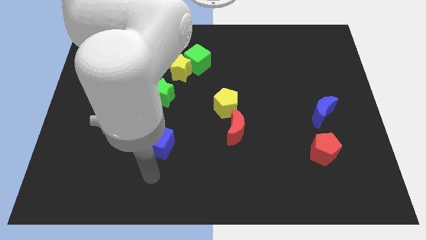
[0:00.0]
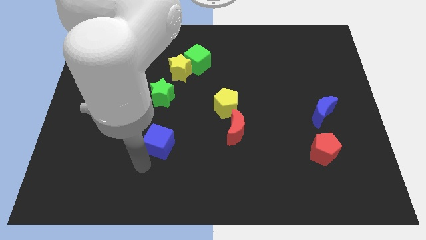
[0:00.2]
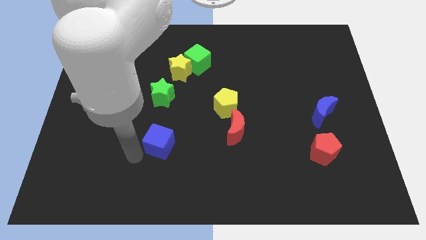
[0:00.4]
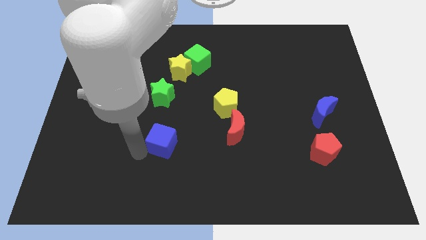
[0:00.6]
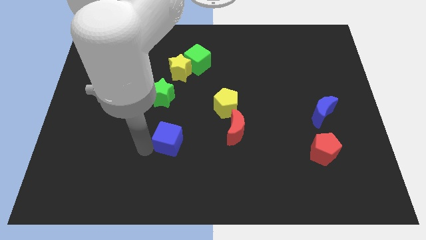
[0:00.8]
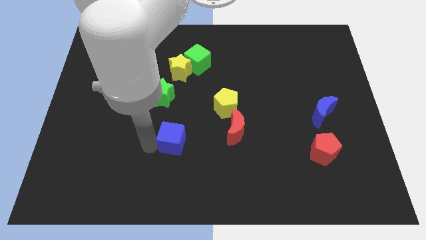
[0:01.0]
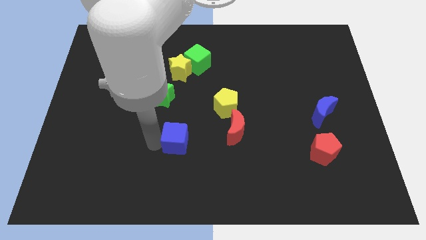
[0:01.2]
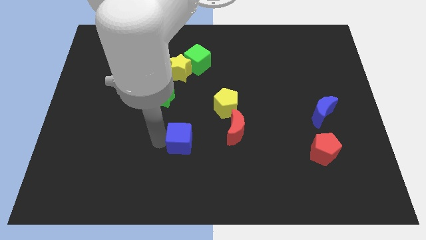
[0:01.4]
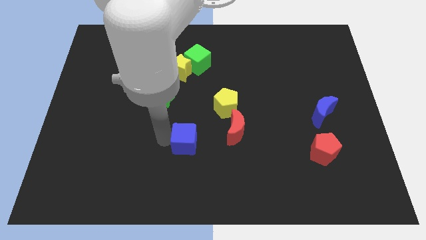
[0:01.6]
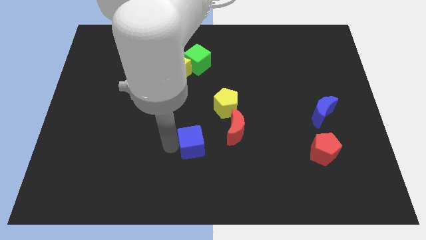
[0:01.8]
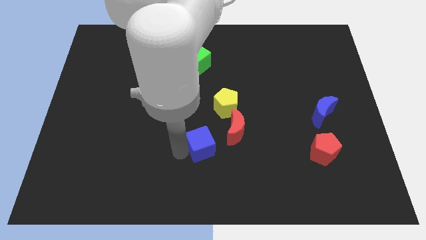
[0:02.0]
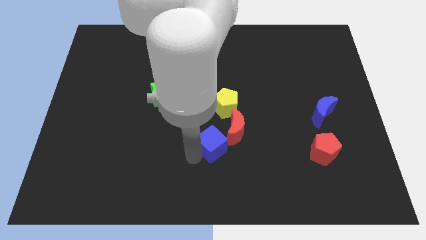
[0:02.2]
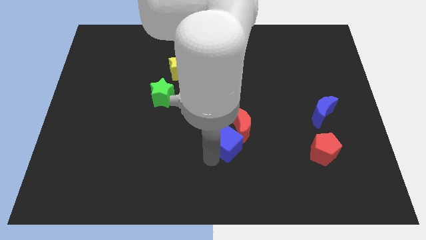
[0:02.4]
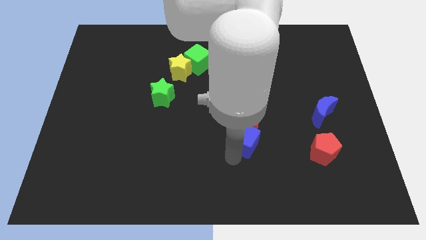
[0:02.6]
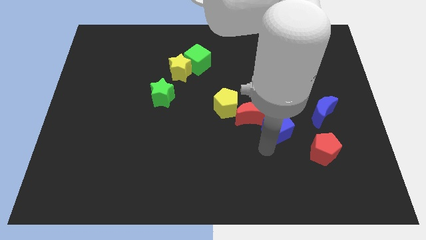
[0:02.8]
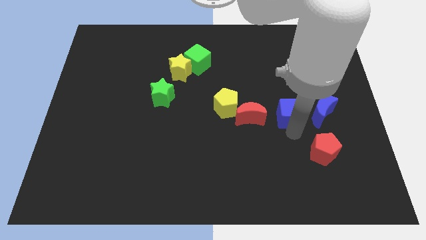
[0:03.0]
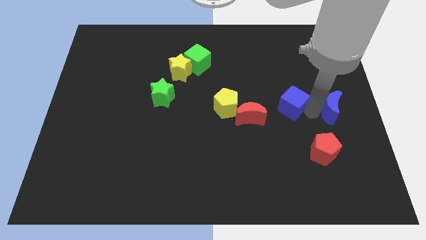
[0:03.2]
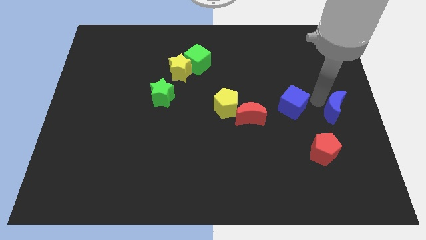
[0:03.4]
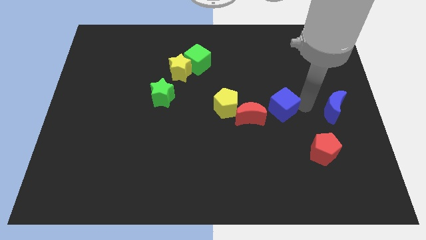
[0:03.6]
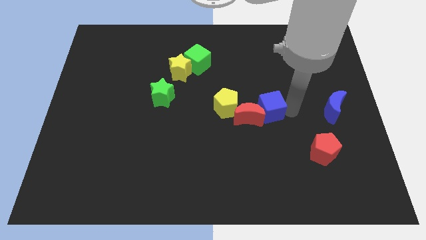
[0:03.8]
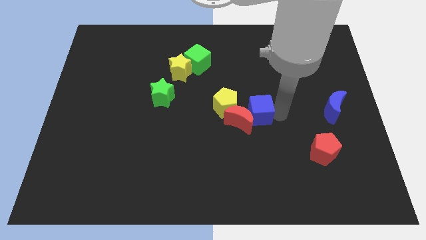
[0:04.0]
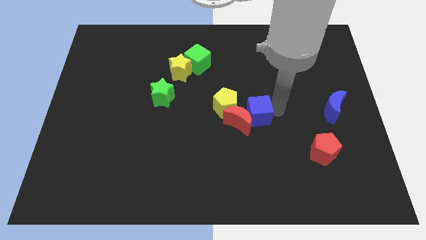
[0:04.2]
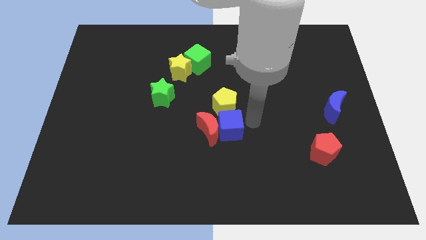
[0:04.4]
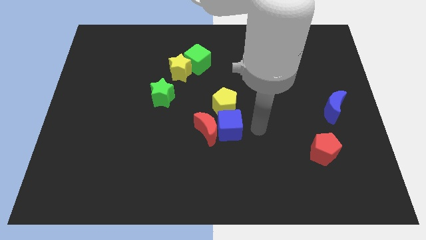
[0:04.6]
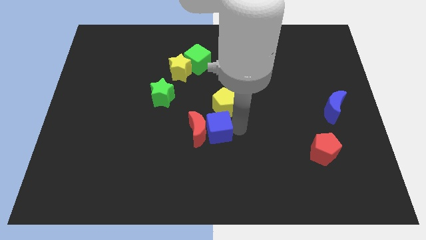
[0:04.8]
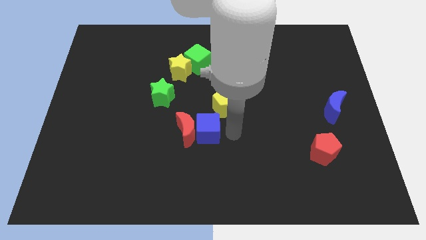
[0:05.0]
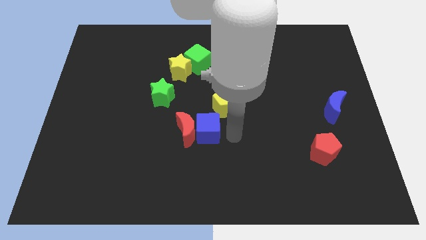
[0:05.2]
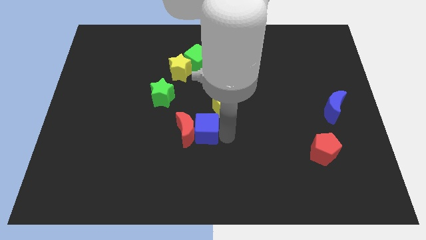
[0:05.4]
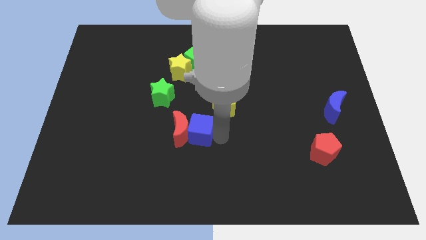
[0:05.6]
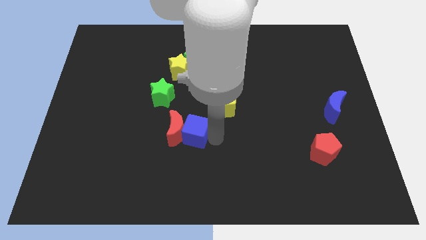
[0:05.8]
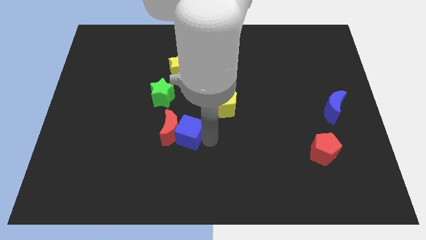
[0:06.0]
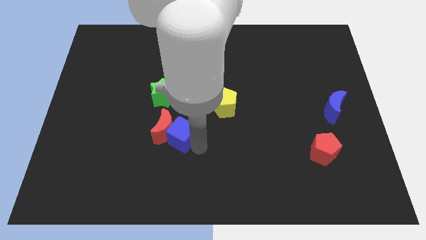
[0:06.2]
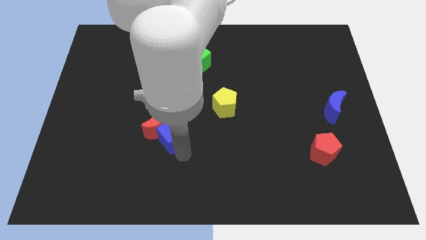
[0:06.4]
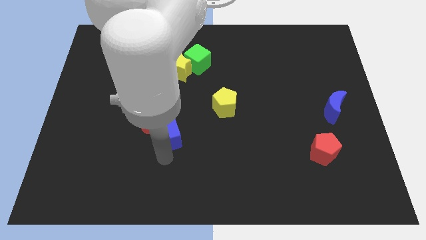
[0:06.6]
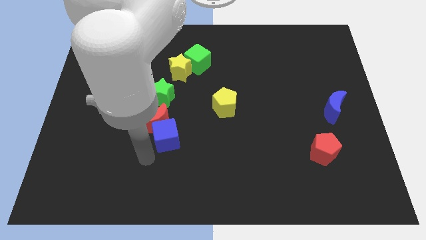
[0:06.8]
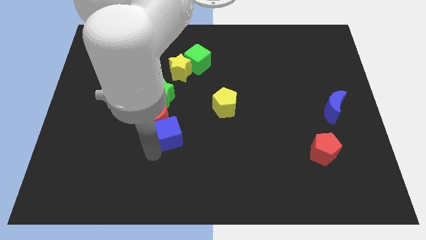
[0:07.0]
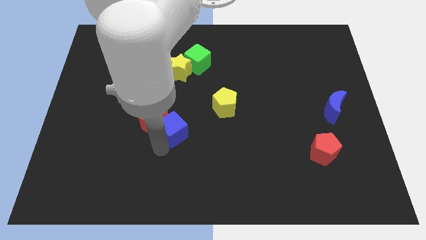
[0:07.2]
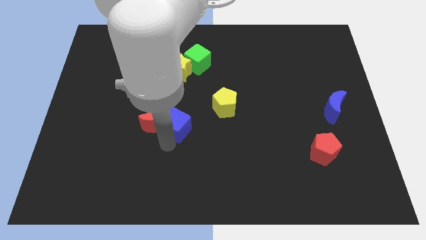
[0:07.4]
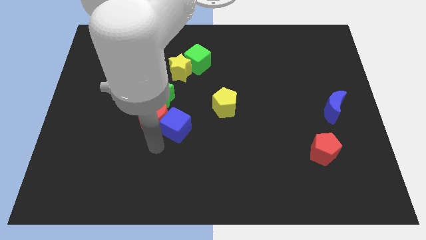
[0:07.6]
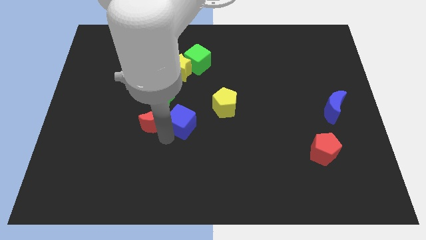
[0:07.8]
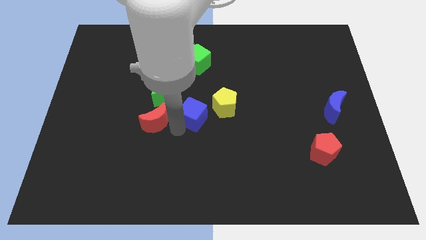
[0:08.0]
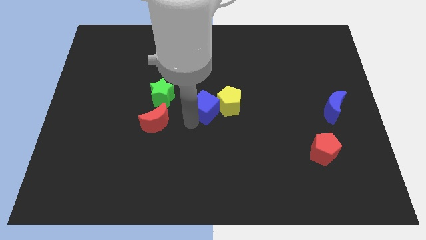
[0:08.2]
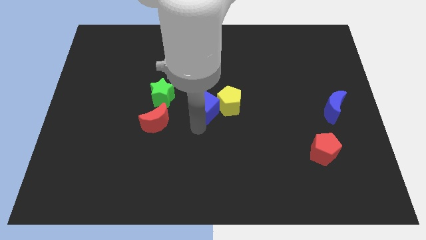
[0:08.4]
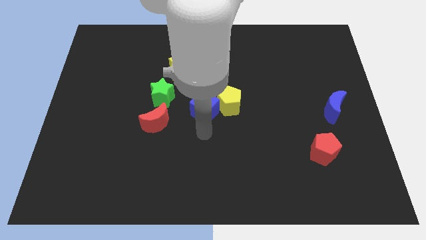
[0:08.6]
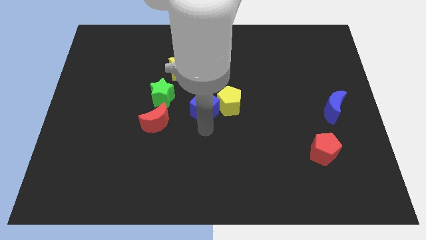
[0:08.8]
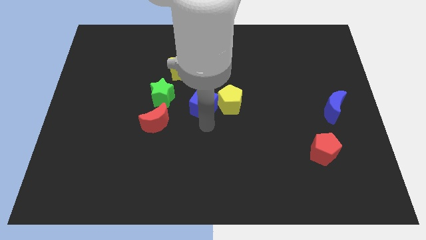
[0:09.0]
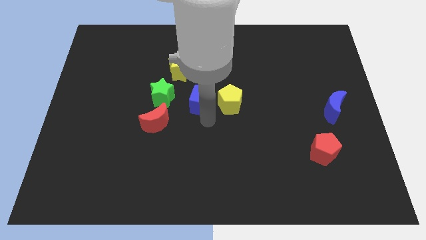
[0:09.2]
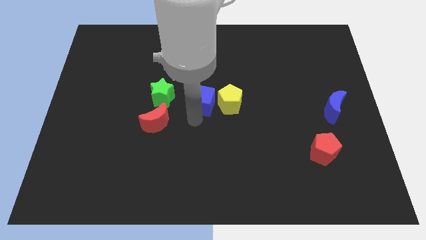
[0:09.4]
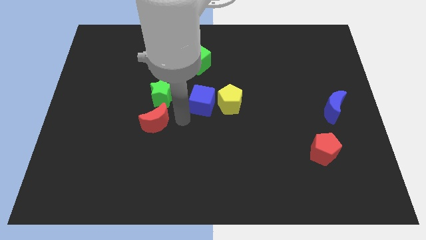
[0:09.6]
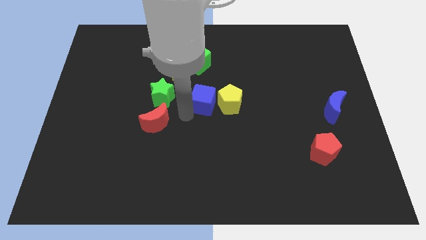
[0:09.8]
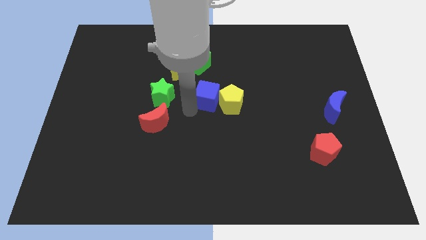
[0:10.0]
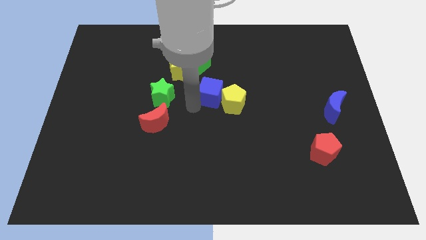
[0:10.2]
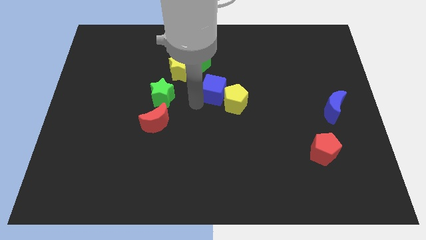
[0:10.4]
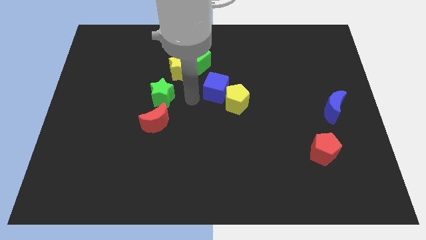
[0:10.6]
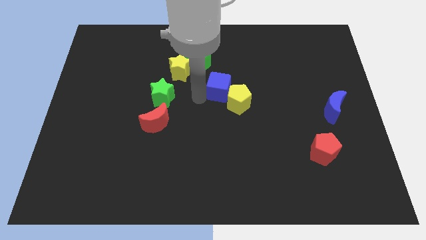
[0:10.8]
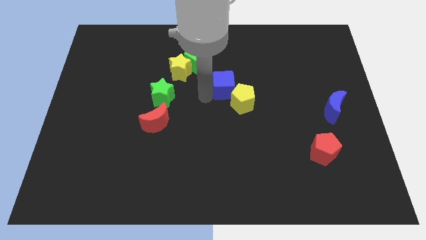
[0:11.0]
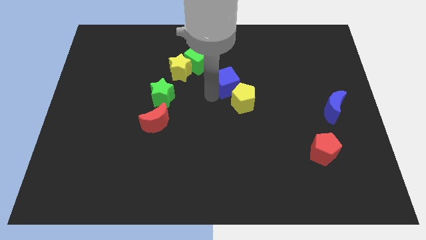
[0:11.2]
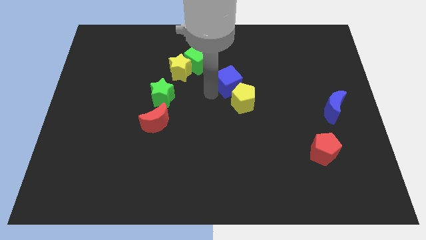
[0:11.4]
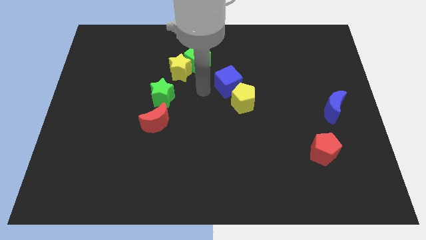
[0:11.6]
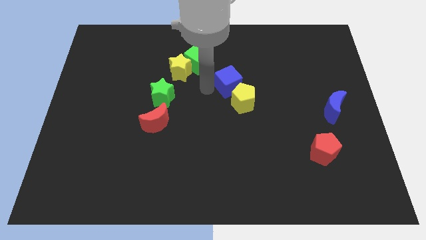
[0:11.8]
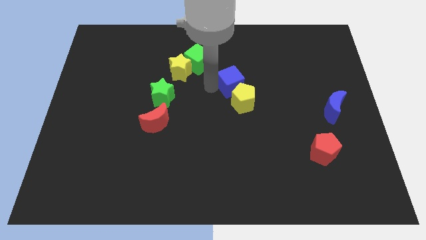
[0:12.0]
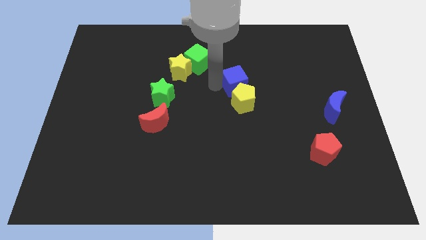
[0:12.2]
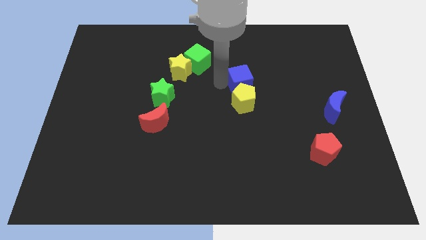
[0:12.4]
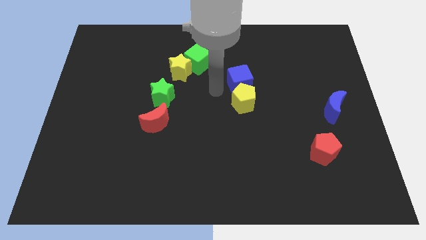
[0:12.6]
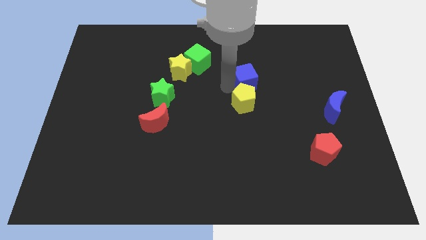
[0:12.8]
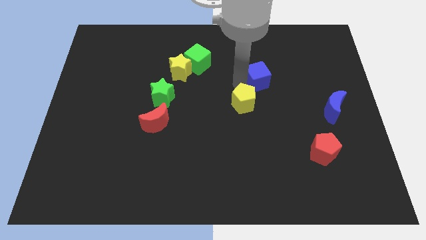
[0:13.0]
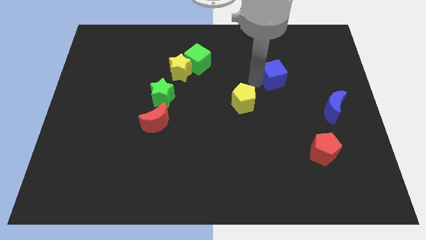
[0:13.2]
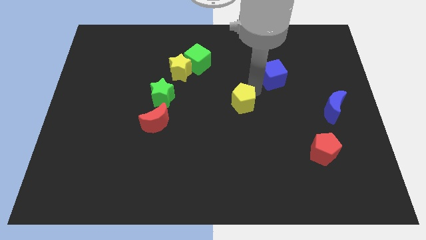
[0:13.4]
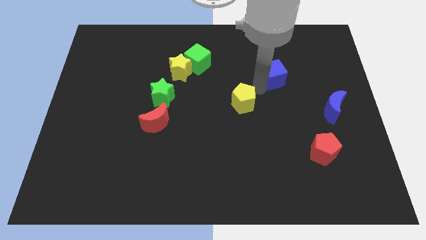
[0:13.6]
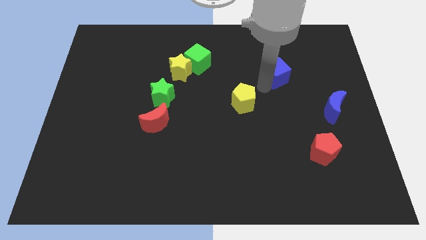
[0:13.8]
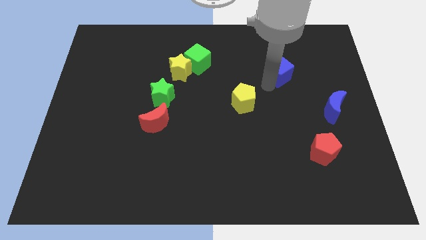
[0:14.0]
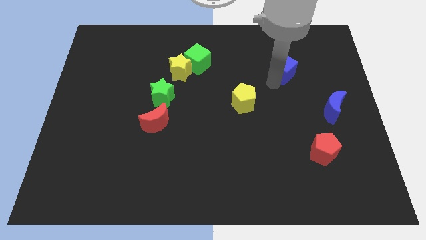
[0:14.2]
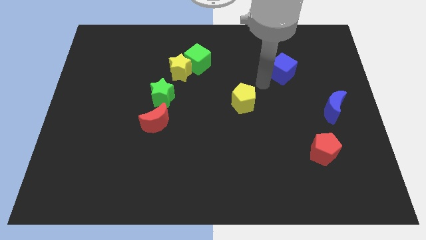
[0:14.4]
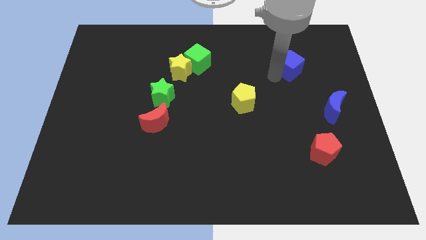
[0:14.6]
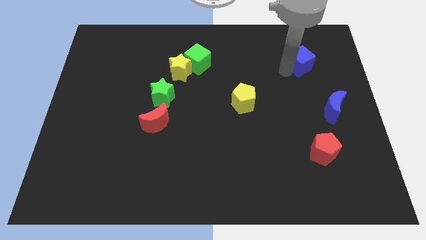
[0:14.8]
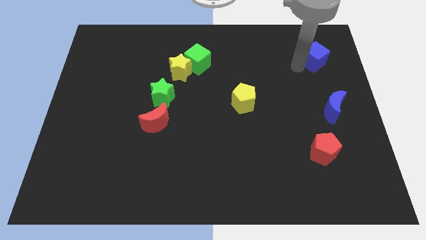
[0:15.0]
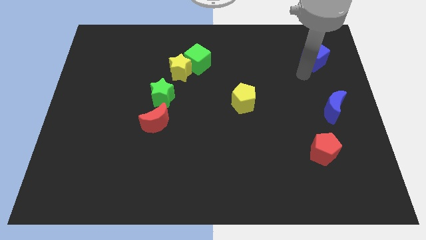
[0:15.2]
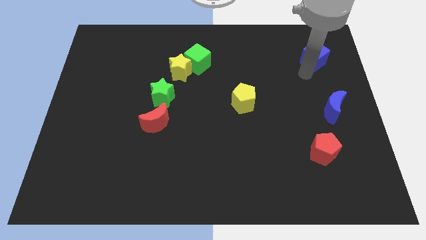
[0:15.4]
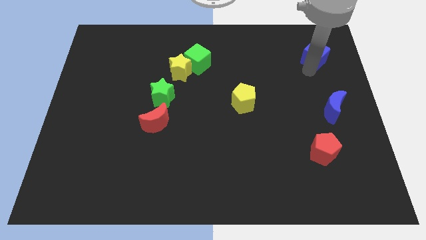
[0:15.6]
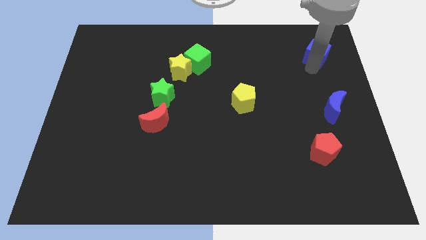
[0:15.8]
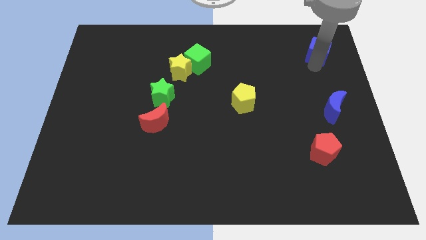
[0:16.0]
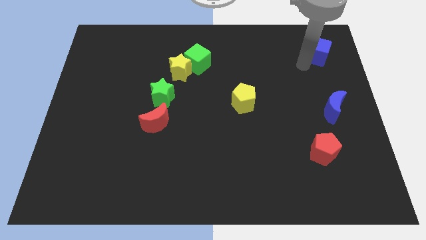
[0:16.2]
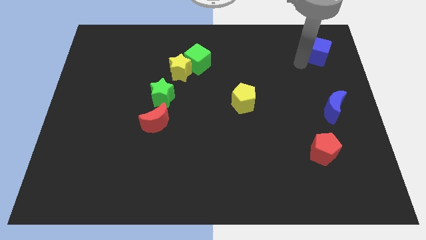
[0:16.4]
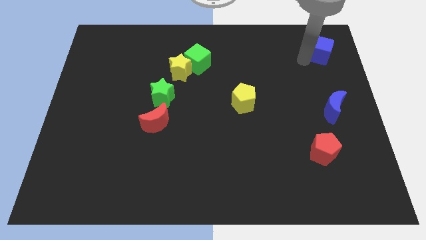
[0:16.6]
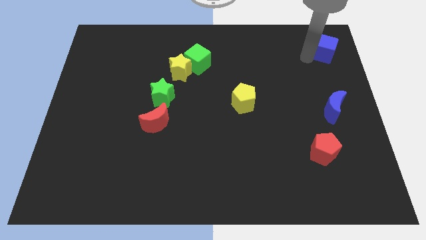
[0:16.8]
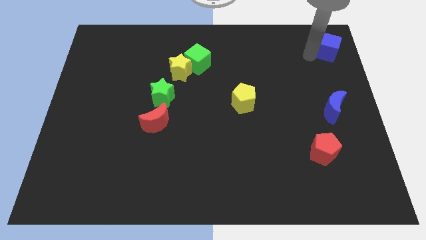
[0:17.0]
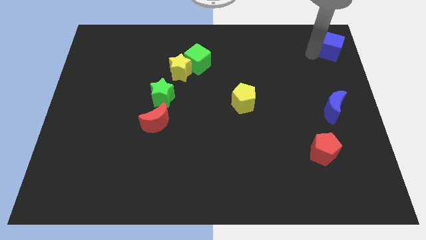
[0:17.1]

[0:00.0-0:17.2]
put the blue cube to the upper right corner
